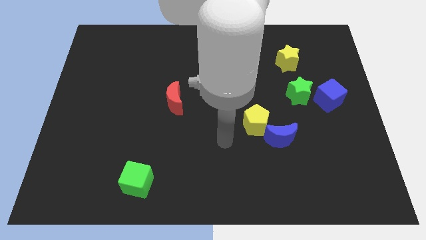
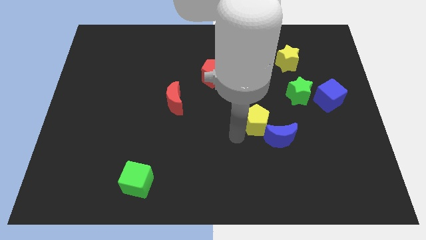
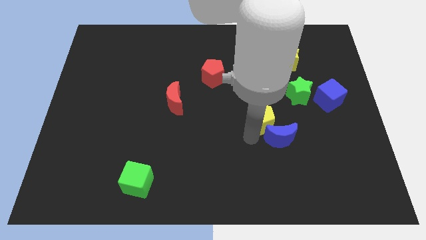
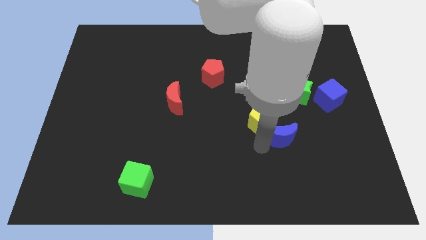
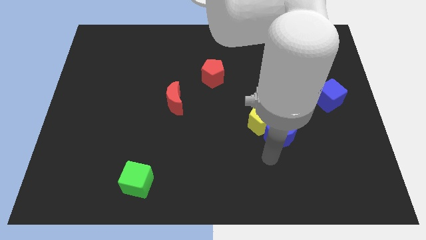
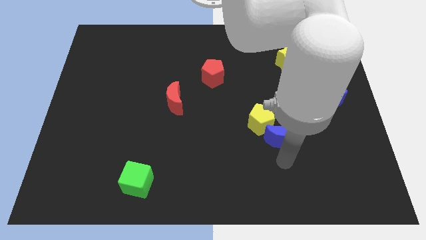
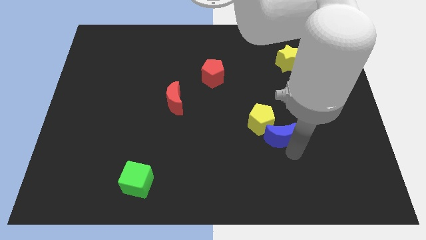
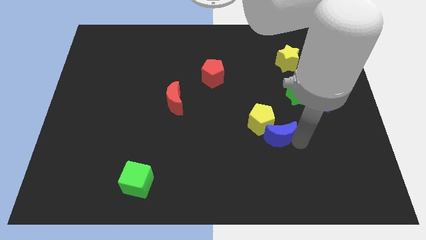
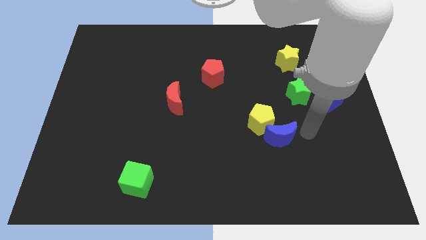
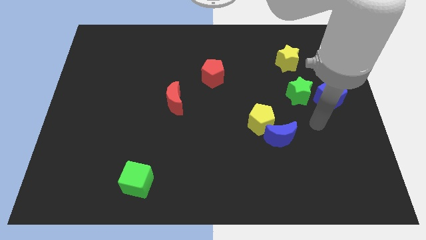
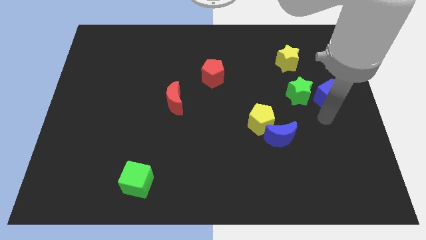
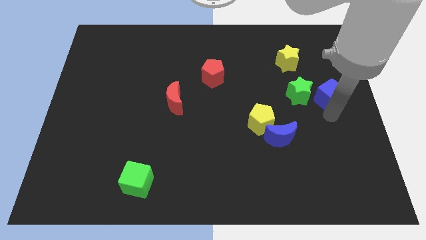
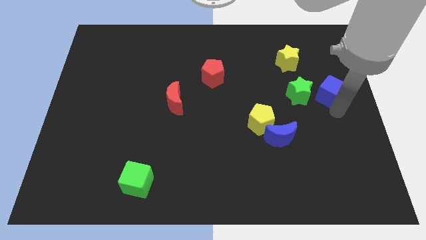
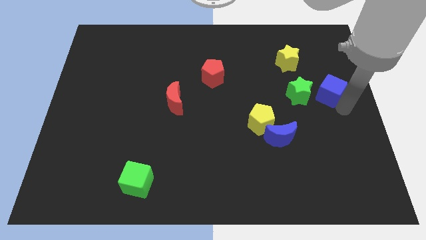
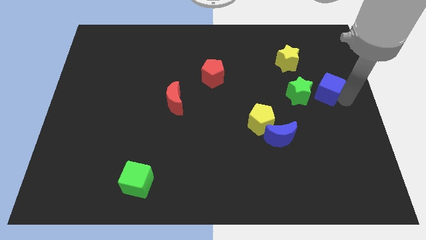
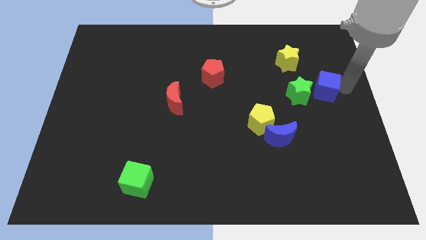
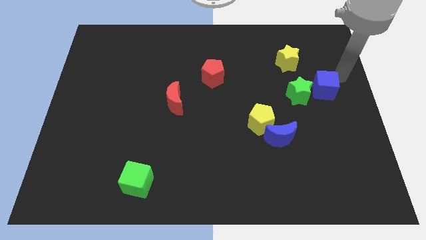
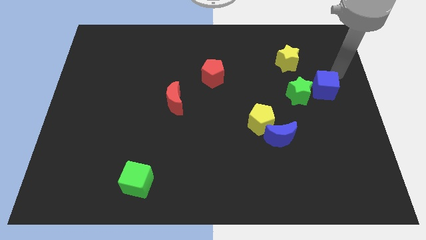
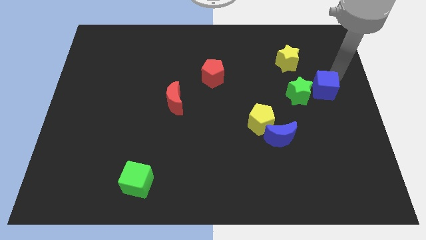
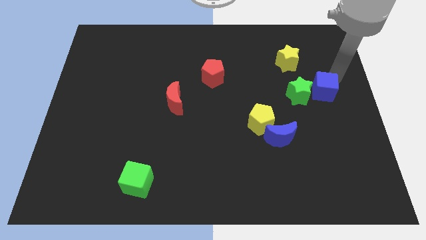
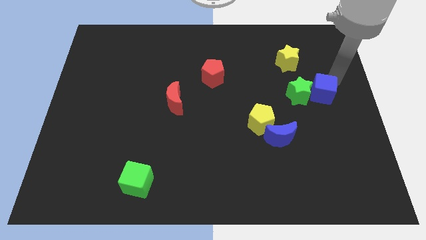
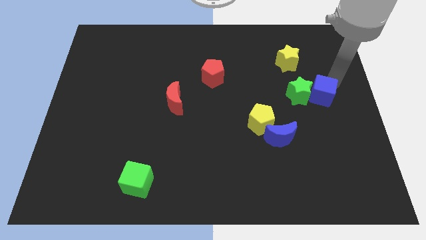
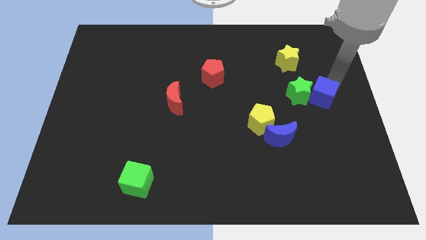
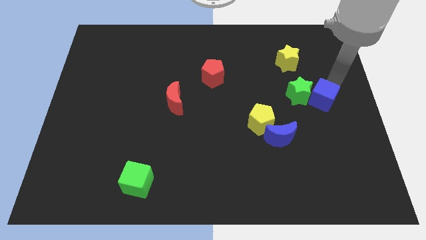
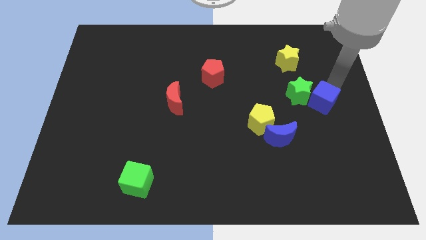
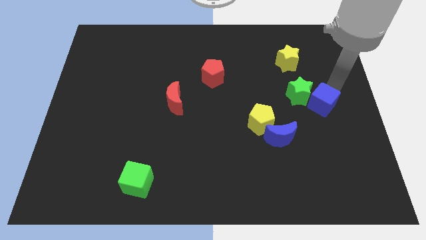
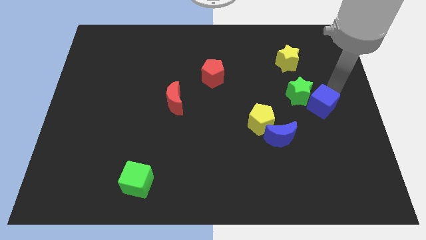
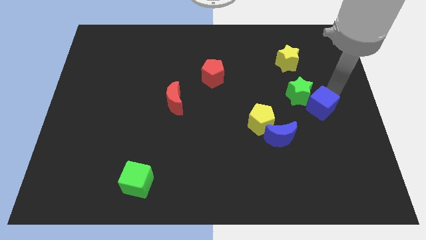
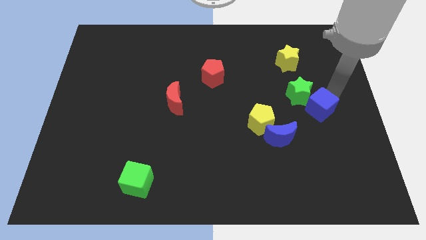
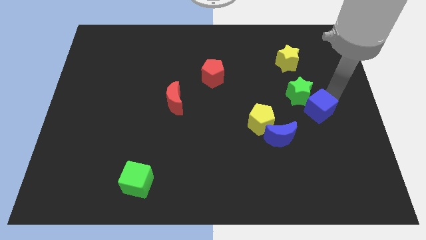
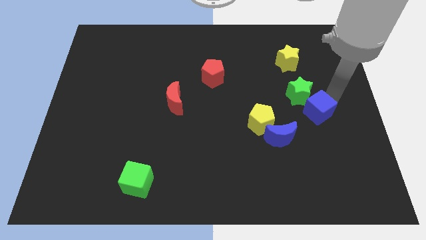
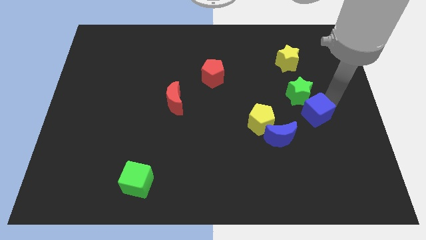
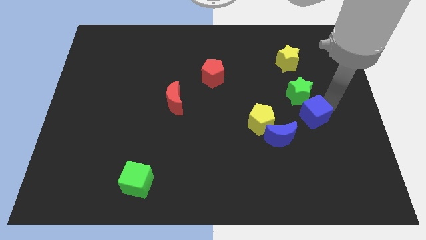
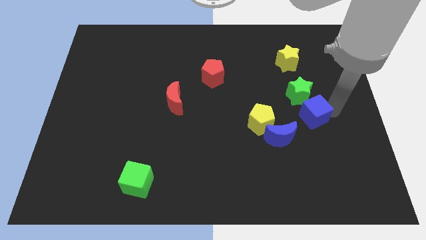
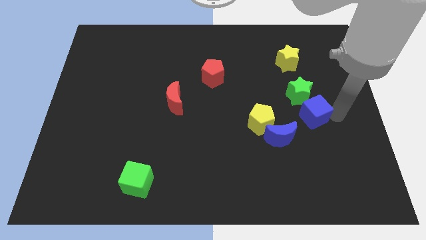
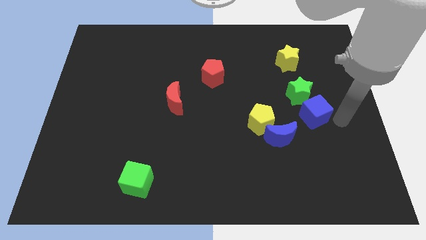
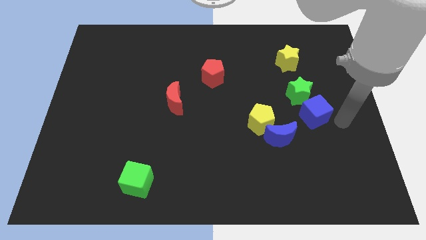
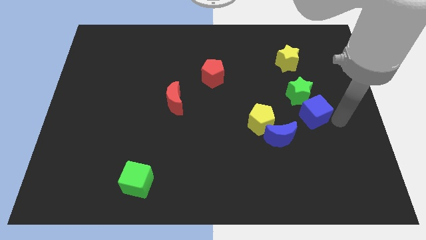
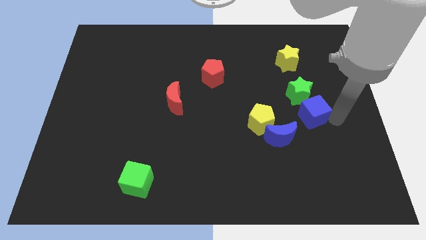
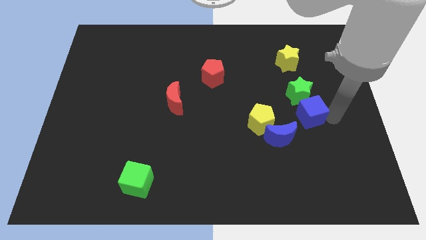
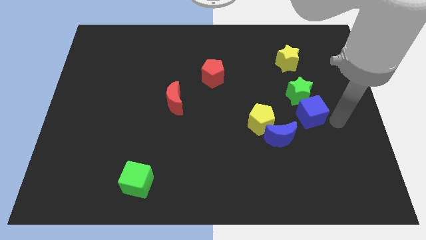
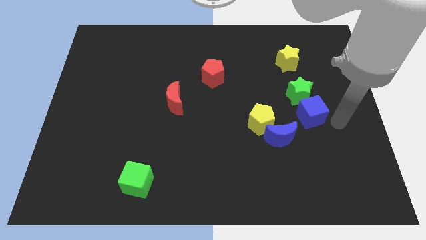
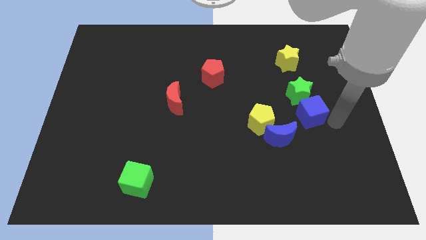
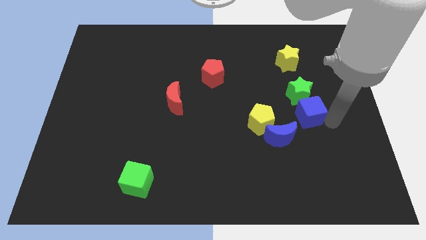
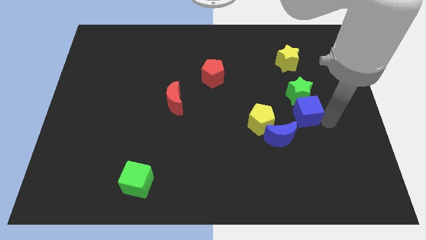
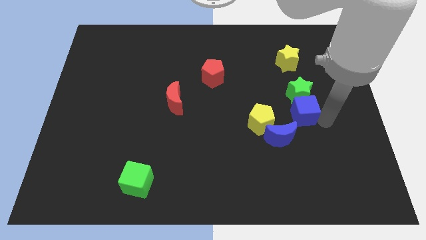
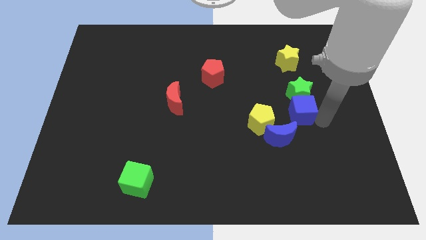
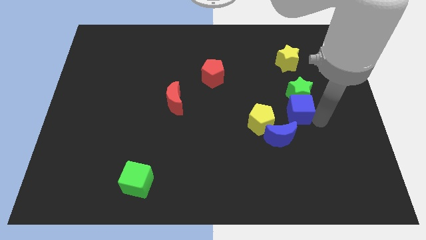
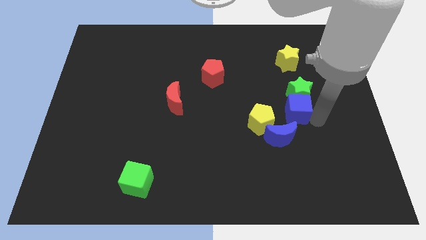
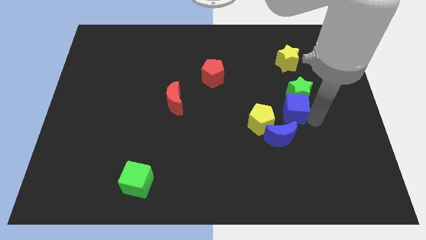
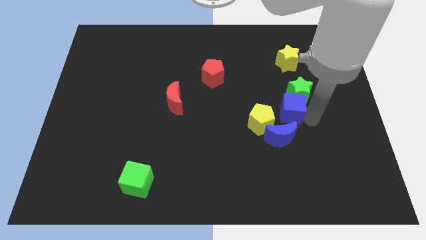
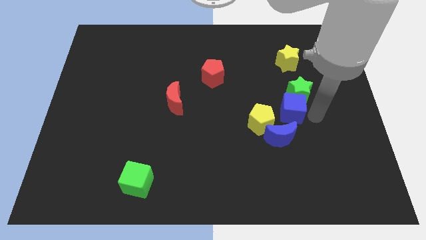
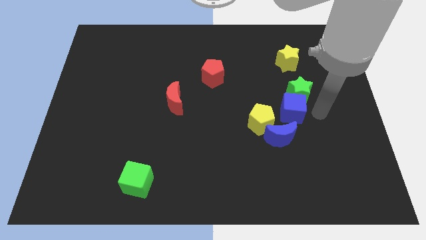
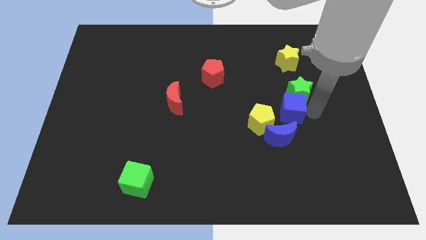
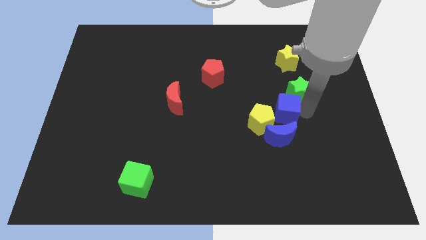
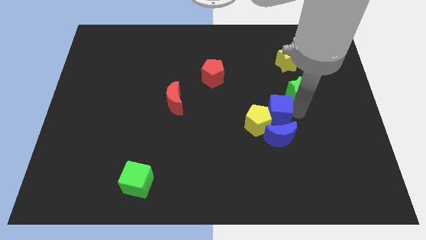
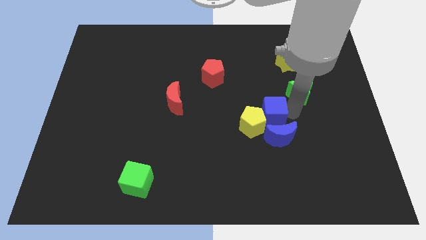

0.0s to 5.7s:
put the blue cube to the top left of the blue moon
